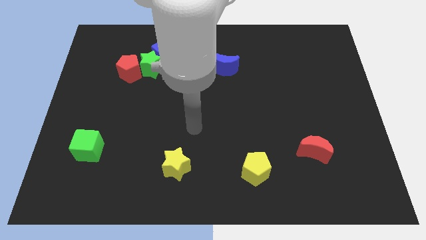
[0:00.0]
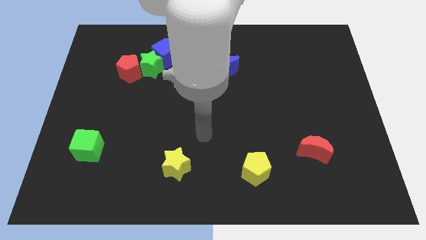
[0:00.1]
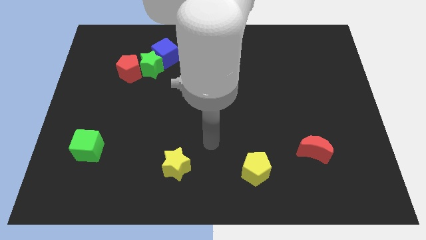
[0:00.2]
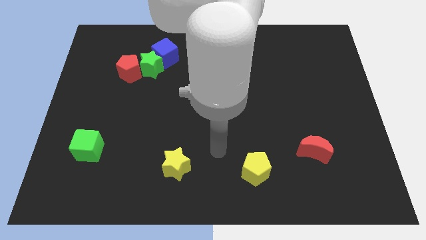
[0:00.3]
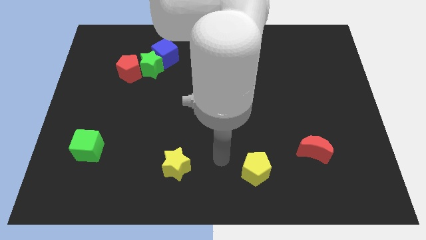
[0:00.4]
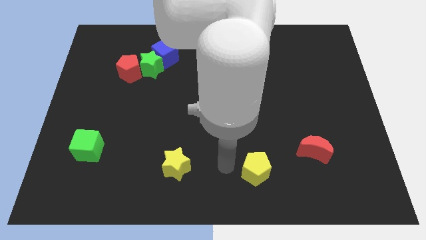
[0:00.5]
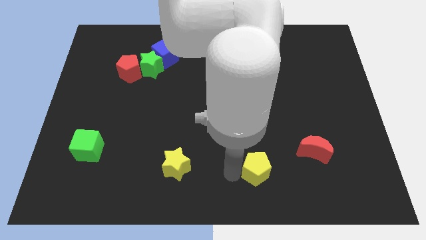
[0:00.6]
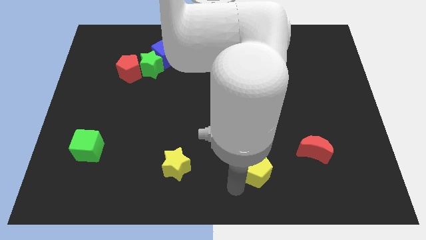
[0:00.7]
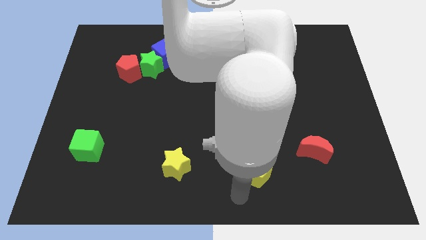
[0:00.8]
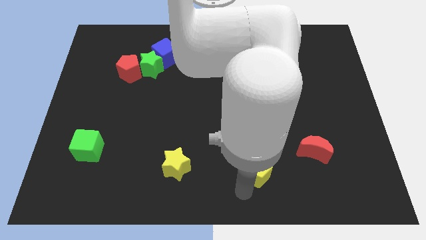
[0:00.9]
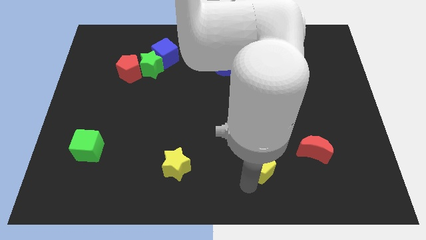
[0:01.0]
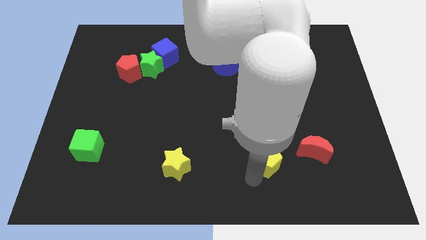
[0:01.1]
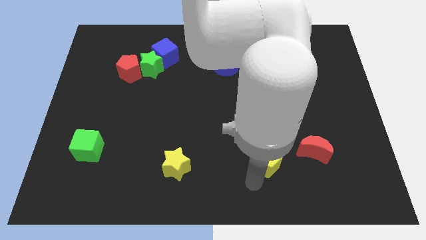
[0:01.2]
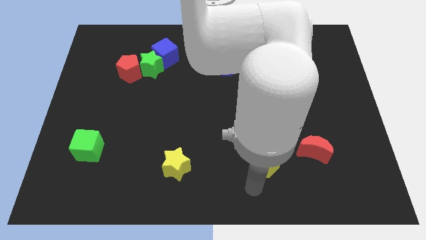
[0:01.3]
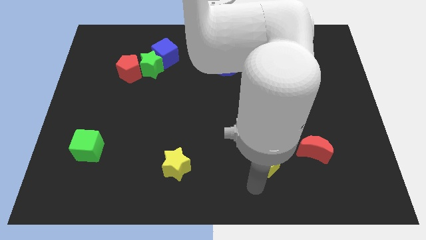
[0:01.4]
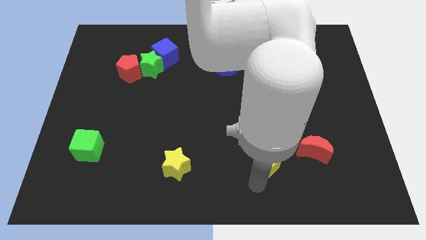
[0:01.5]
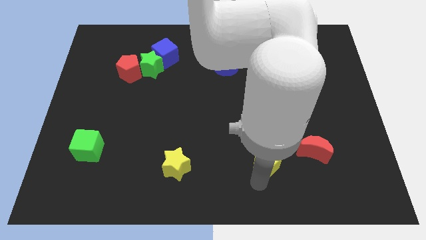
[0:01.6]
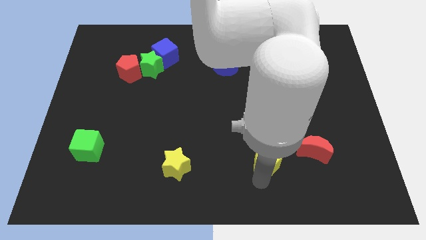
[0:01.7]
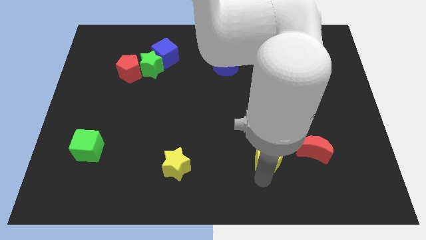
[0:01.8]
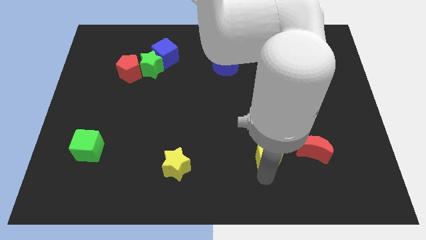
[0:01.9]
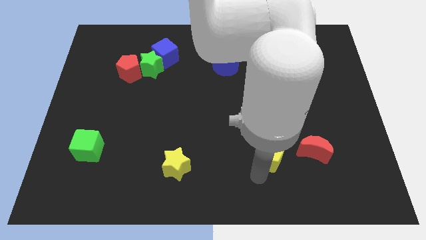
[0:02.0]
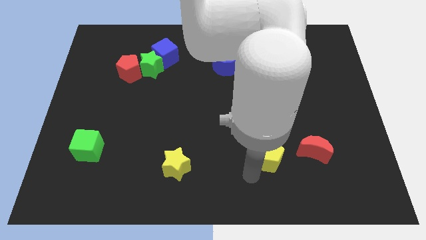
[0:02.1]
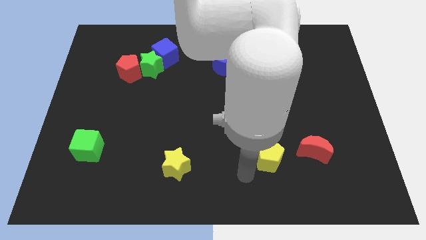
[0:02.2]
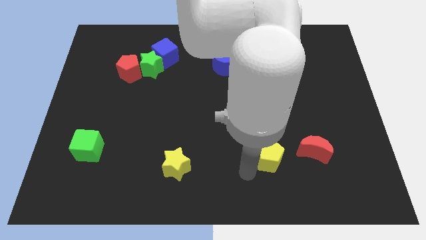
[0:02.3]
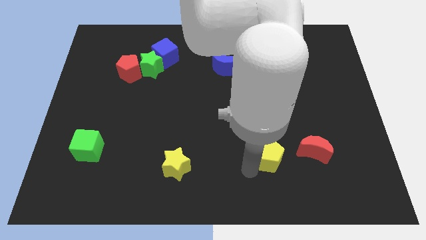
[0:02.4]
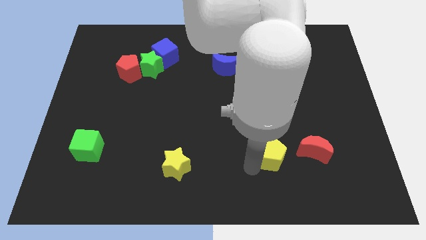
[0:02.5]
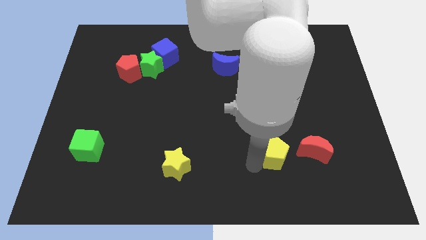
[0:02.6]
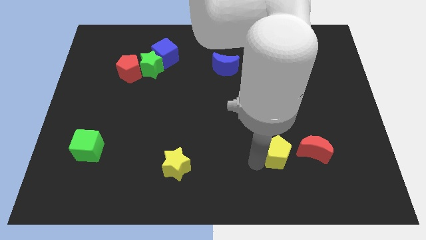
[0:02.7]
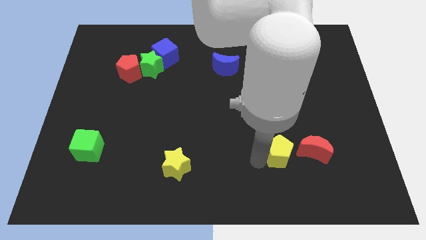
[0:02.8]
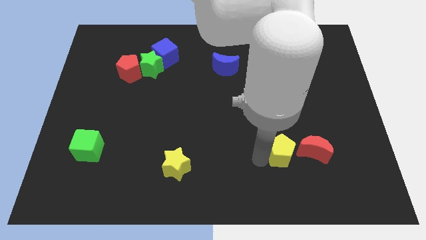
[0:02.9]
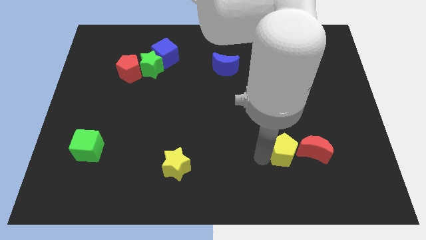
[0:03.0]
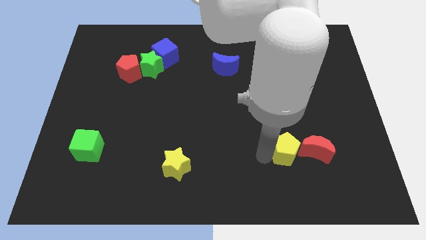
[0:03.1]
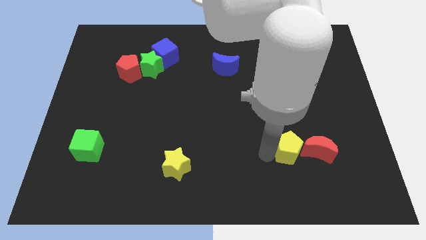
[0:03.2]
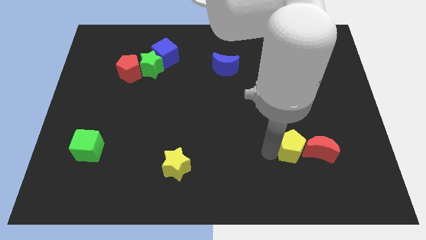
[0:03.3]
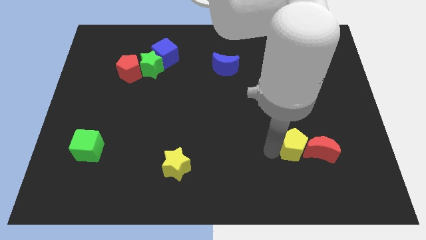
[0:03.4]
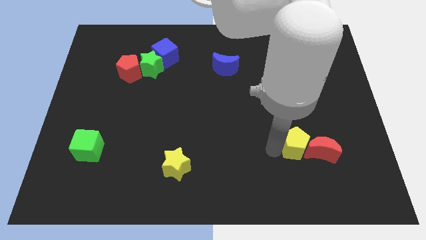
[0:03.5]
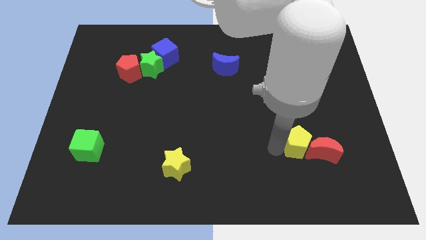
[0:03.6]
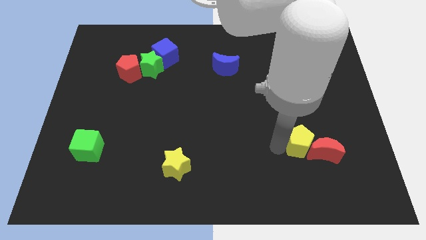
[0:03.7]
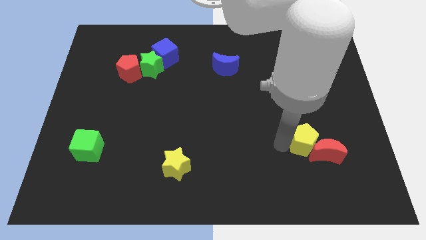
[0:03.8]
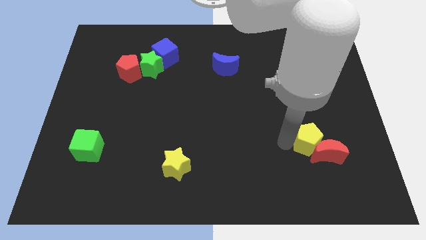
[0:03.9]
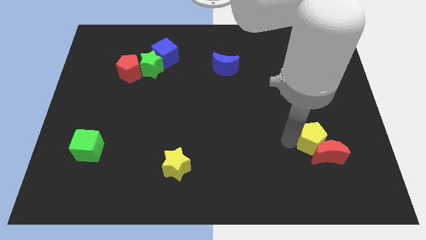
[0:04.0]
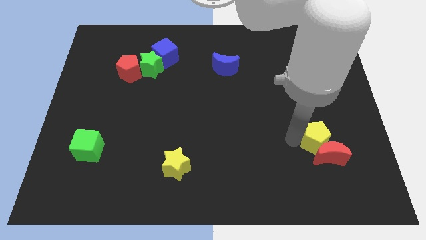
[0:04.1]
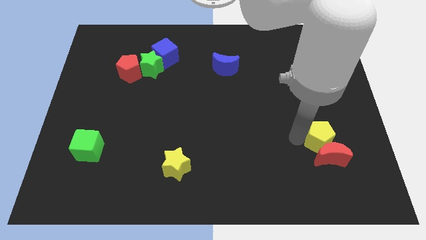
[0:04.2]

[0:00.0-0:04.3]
put the yellow pentagon to the top right side of the red moon

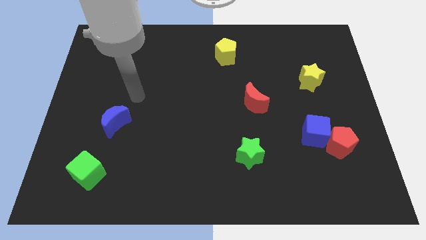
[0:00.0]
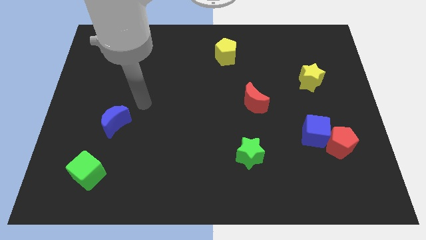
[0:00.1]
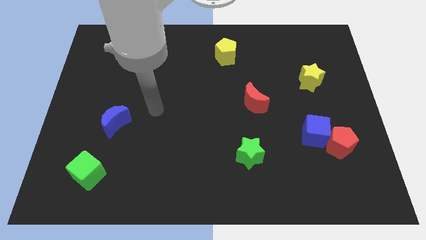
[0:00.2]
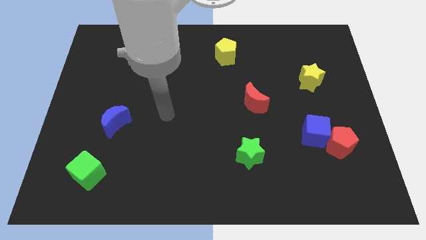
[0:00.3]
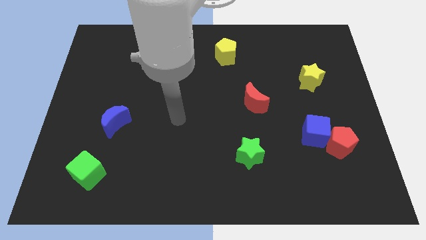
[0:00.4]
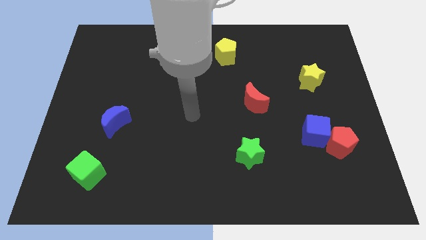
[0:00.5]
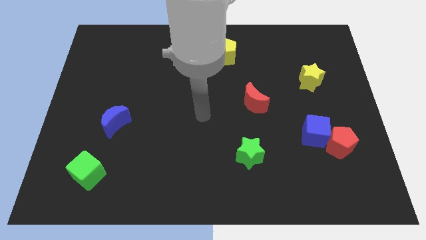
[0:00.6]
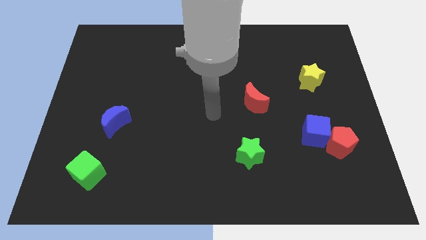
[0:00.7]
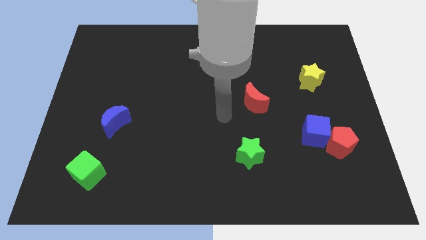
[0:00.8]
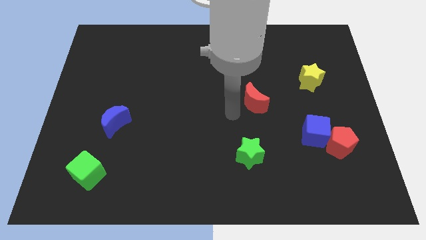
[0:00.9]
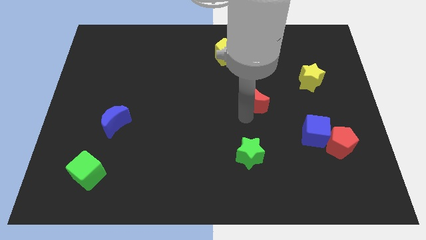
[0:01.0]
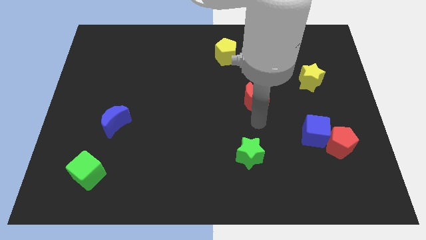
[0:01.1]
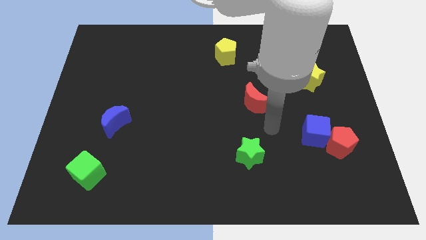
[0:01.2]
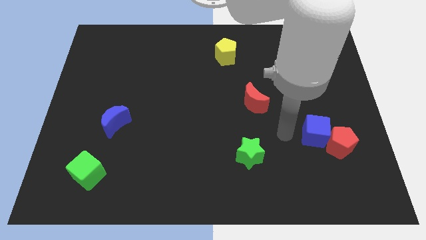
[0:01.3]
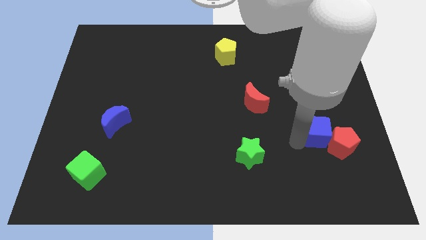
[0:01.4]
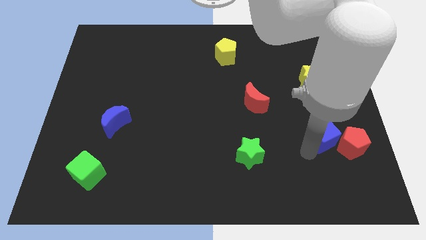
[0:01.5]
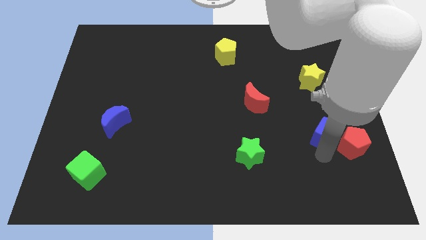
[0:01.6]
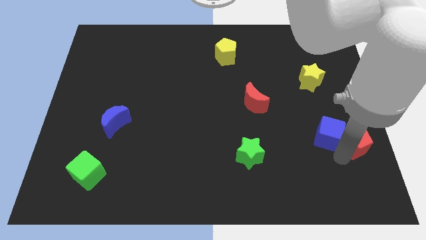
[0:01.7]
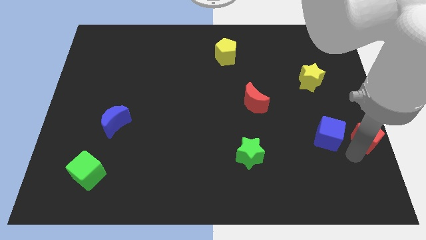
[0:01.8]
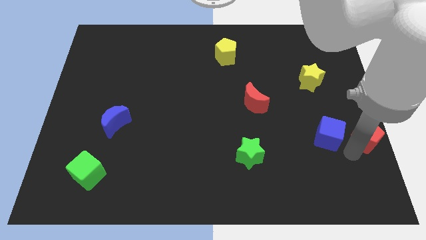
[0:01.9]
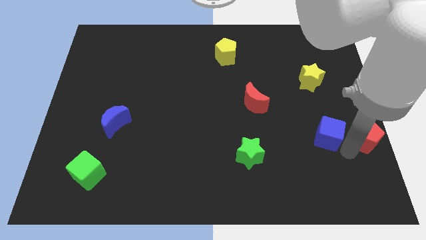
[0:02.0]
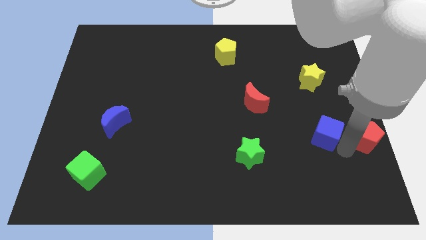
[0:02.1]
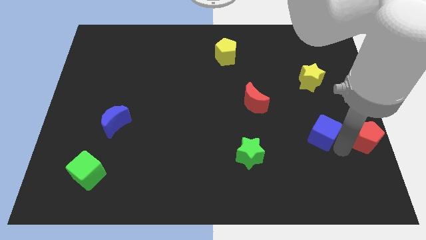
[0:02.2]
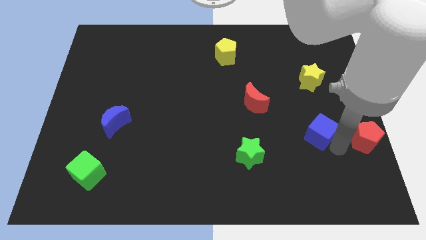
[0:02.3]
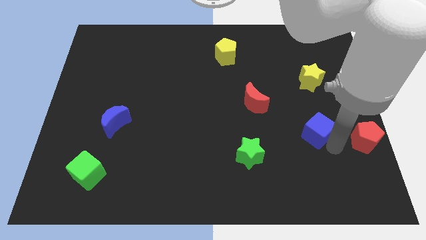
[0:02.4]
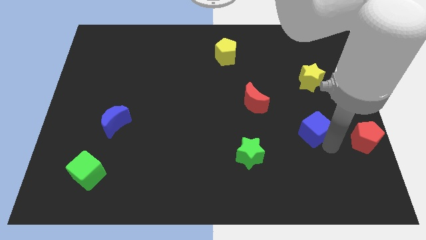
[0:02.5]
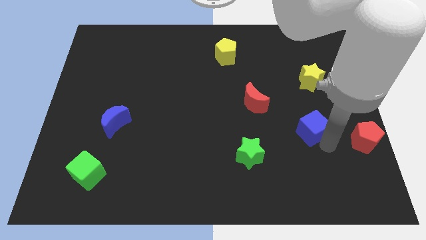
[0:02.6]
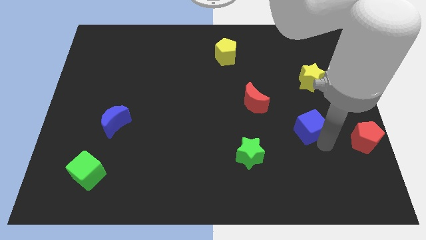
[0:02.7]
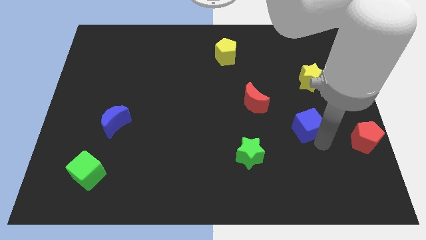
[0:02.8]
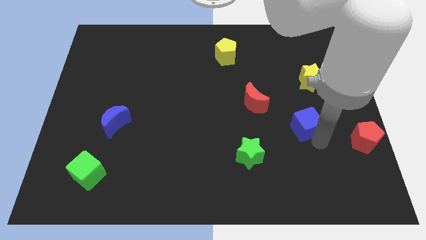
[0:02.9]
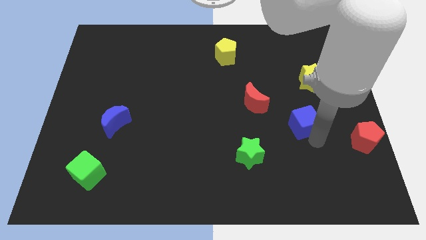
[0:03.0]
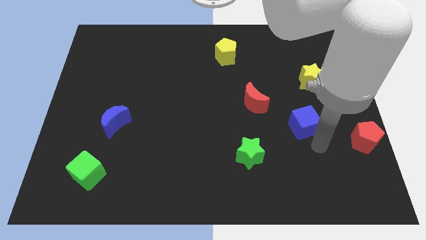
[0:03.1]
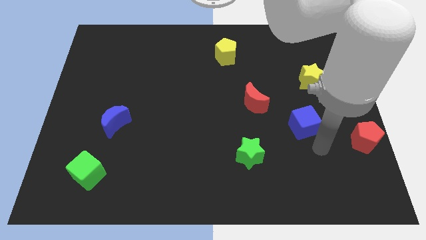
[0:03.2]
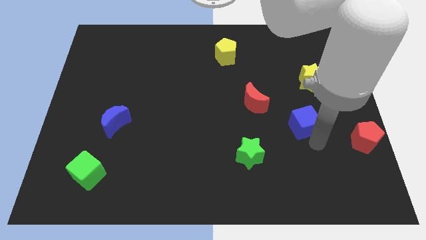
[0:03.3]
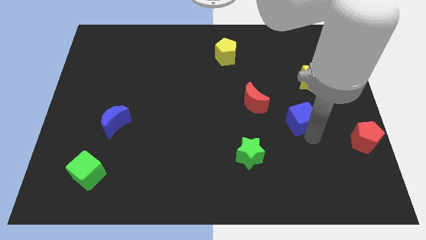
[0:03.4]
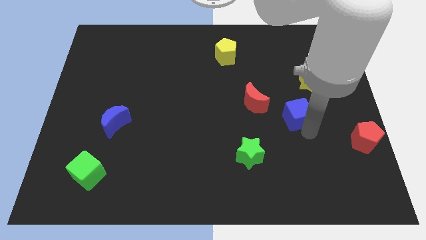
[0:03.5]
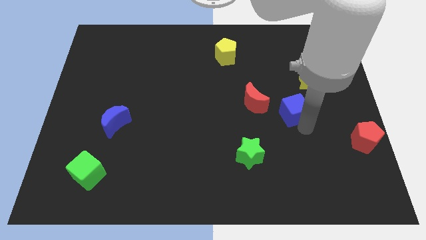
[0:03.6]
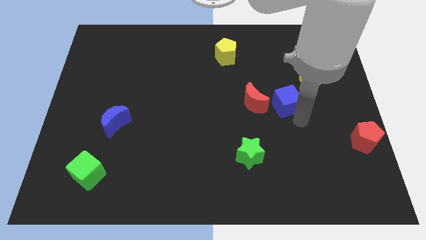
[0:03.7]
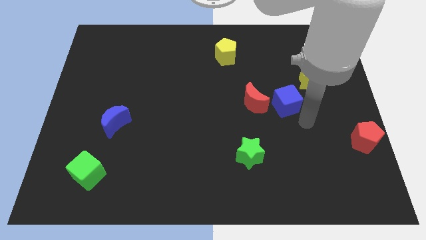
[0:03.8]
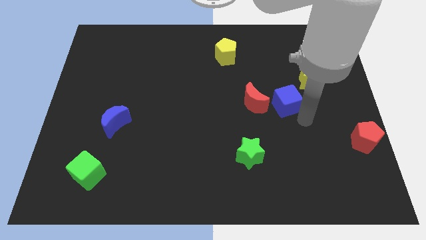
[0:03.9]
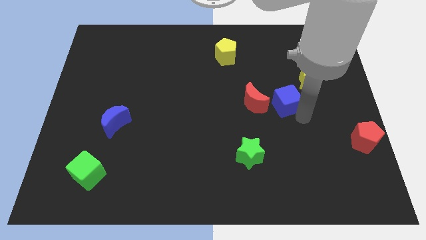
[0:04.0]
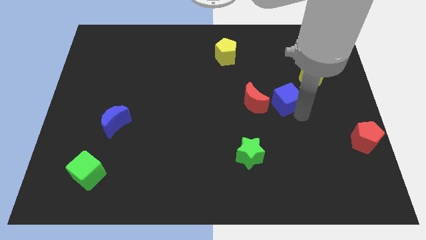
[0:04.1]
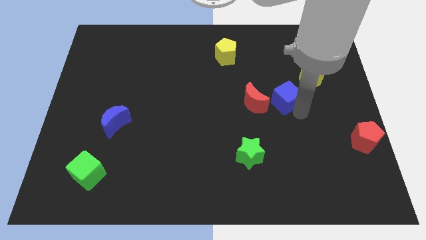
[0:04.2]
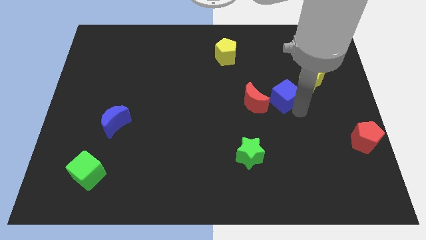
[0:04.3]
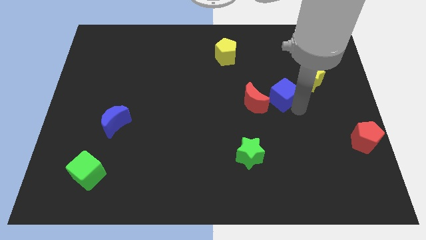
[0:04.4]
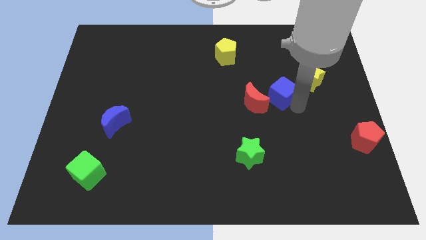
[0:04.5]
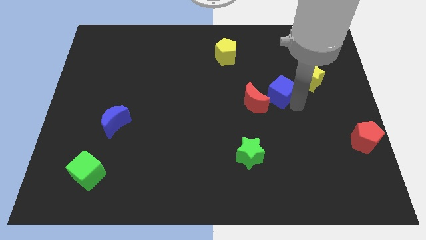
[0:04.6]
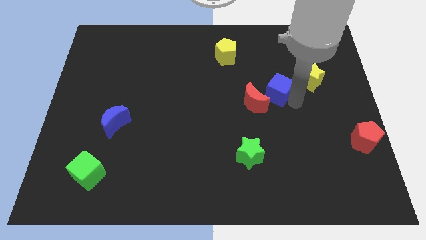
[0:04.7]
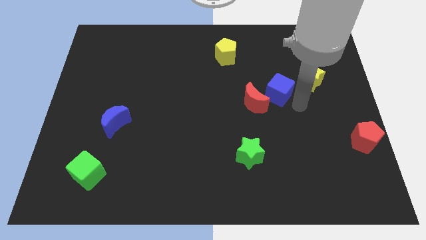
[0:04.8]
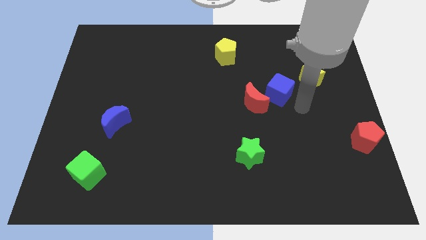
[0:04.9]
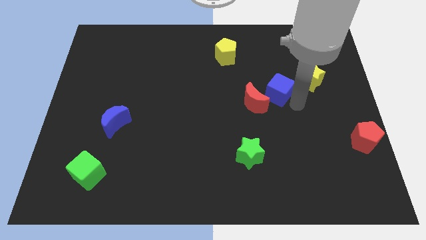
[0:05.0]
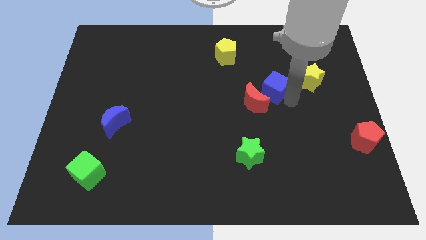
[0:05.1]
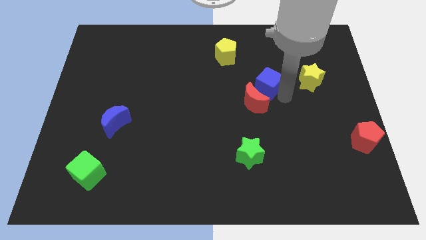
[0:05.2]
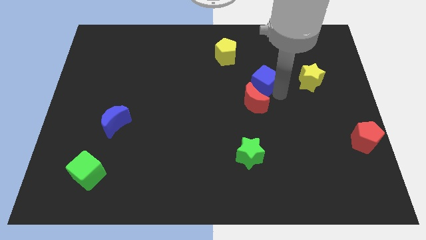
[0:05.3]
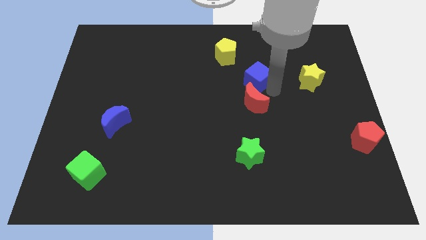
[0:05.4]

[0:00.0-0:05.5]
push the blue cube to the bottom right side of the yellow pentagon
